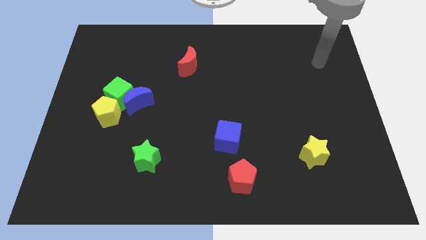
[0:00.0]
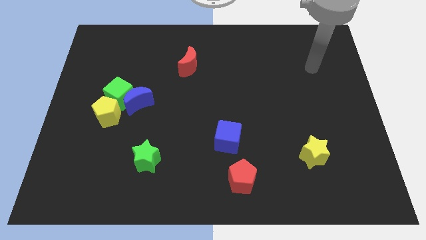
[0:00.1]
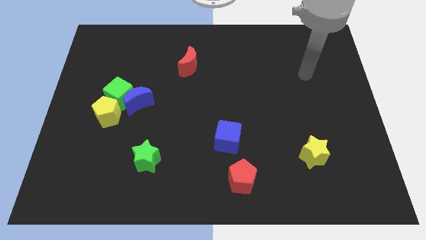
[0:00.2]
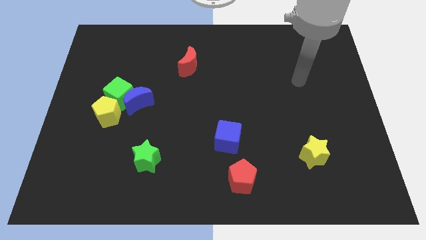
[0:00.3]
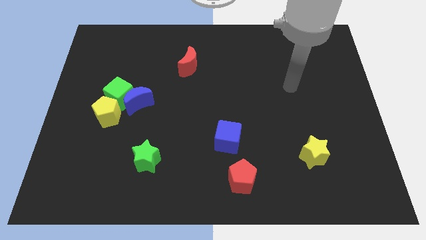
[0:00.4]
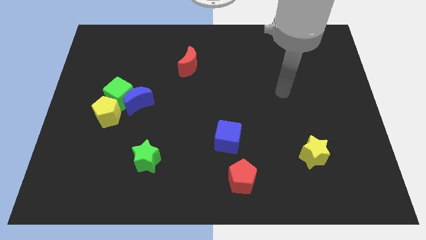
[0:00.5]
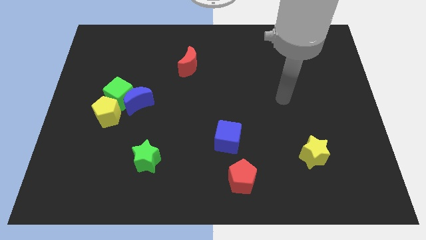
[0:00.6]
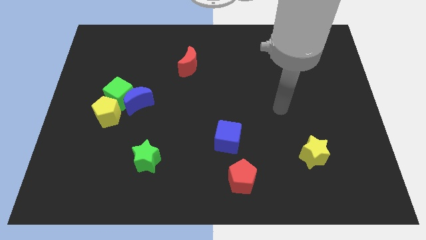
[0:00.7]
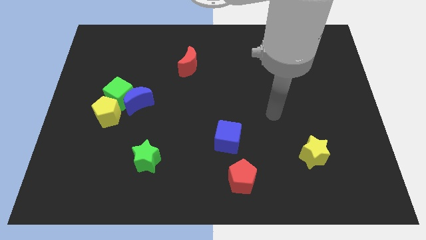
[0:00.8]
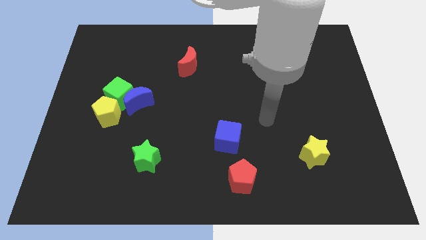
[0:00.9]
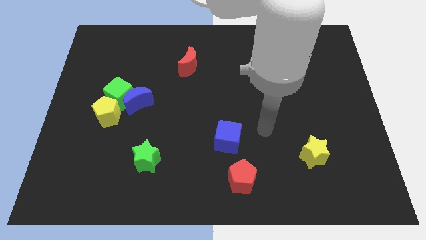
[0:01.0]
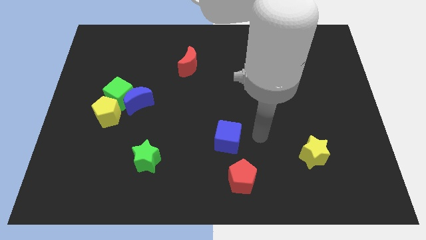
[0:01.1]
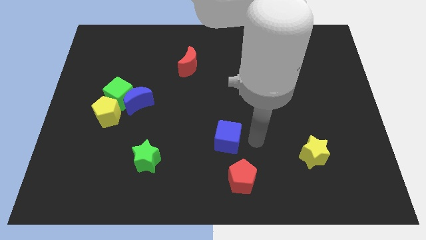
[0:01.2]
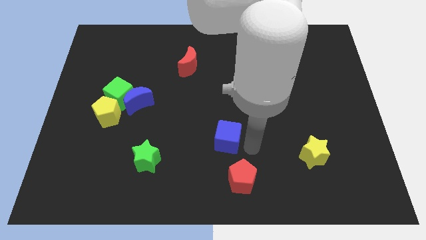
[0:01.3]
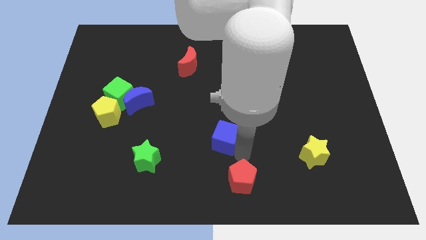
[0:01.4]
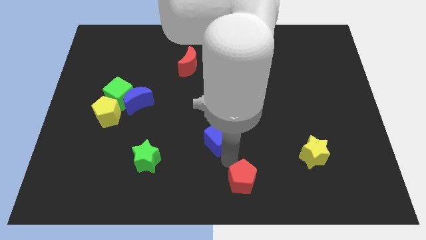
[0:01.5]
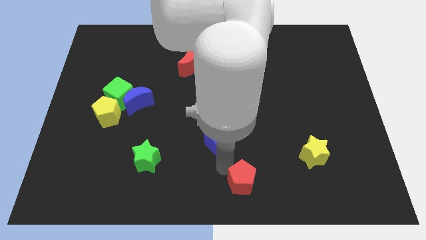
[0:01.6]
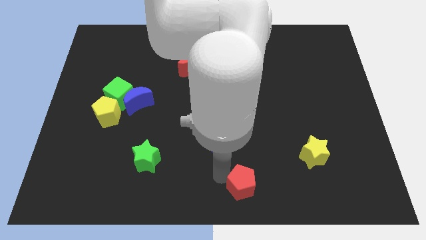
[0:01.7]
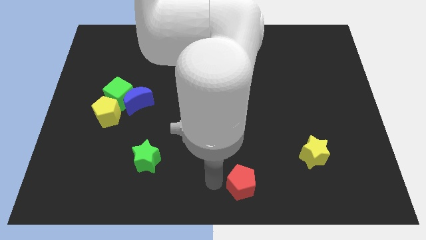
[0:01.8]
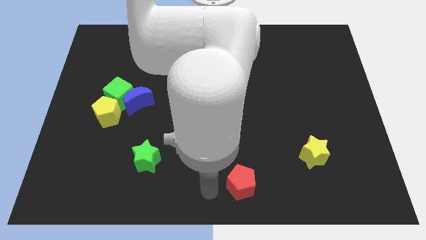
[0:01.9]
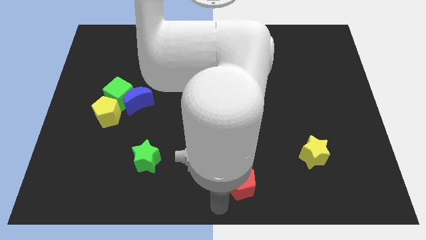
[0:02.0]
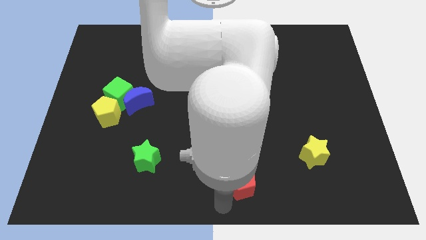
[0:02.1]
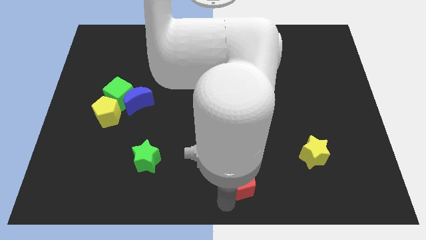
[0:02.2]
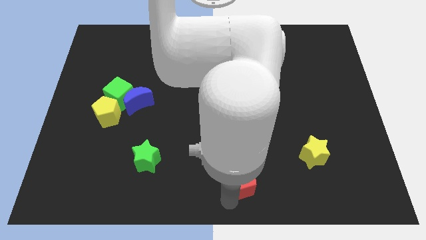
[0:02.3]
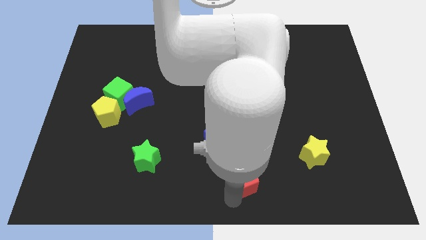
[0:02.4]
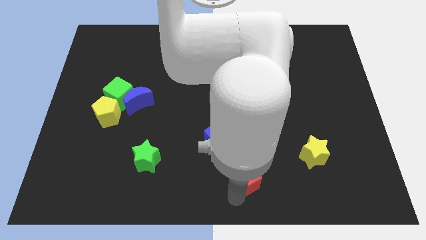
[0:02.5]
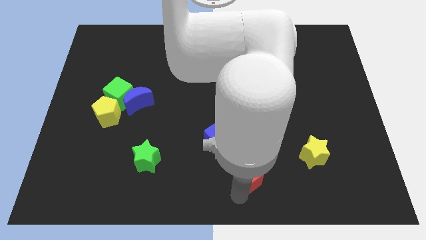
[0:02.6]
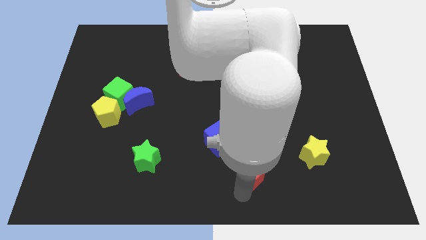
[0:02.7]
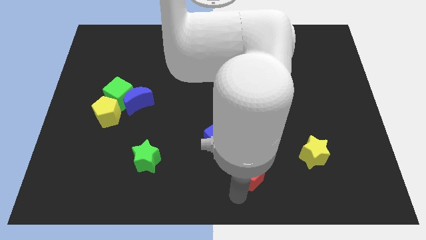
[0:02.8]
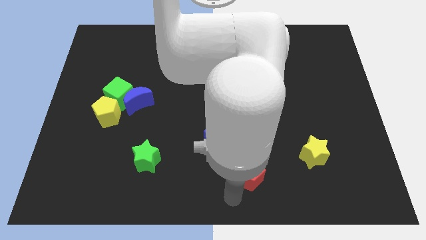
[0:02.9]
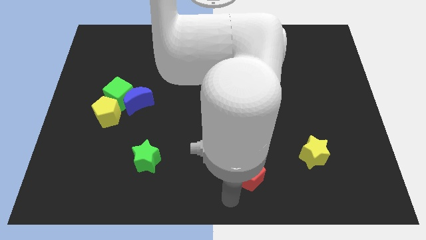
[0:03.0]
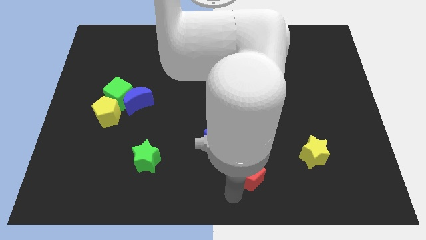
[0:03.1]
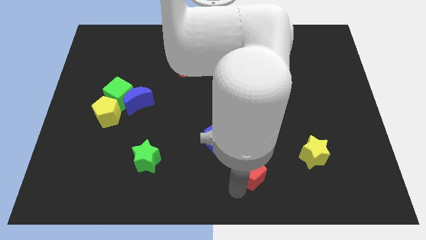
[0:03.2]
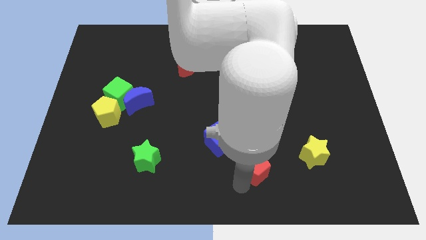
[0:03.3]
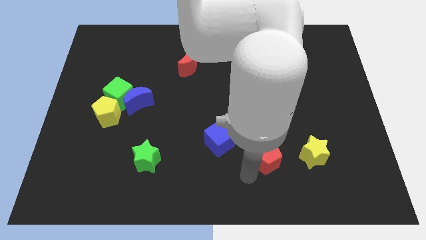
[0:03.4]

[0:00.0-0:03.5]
slightly move the red pentagon up and to the right

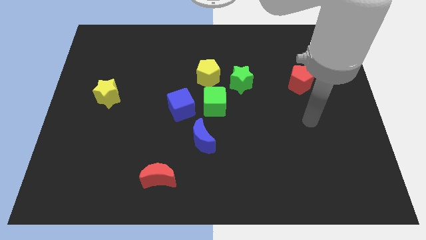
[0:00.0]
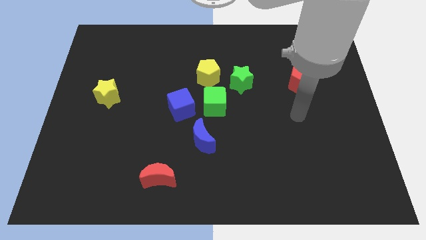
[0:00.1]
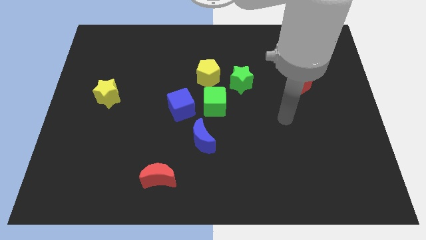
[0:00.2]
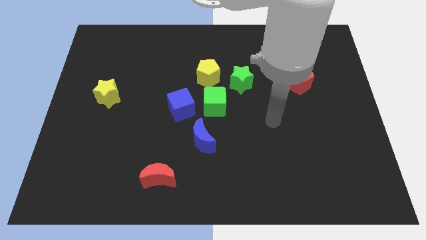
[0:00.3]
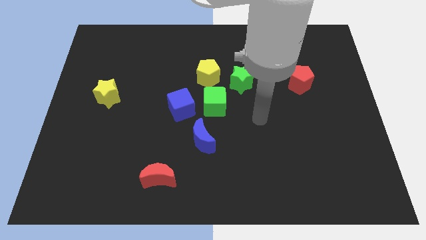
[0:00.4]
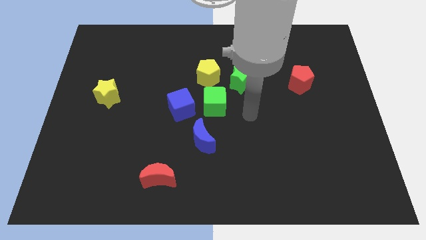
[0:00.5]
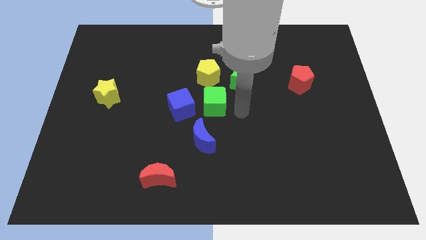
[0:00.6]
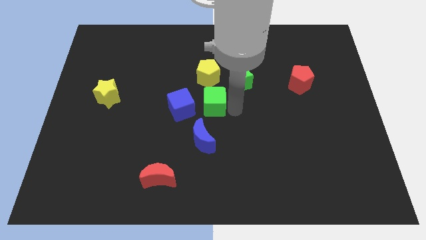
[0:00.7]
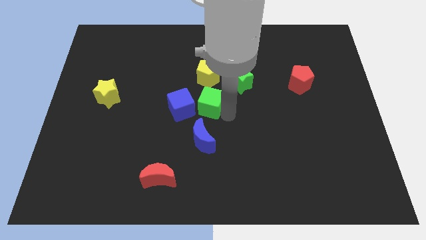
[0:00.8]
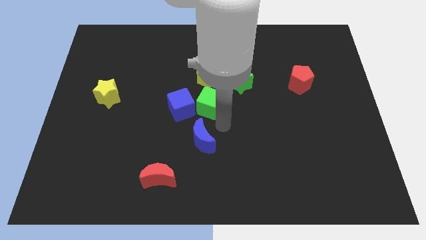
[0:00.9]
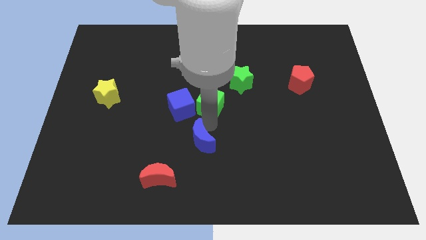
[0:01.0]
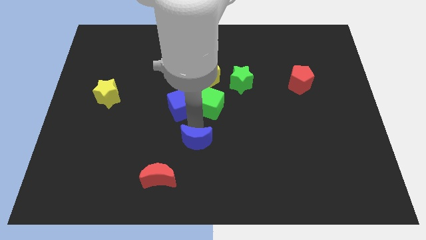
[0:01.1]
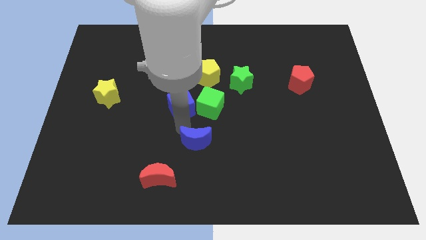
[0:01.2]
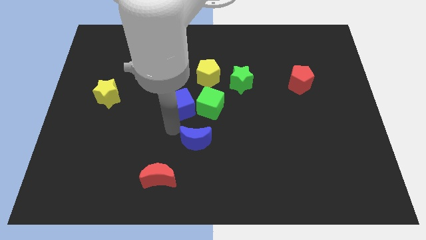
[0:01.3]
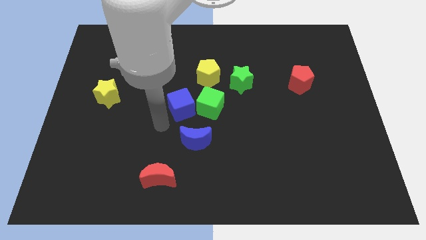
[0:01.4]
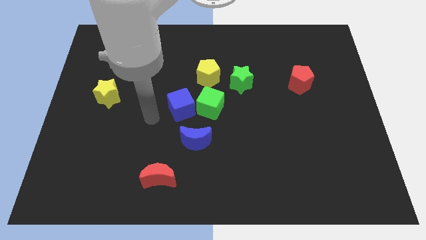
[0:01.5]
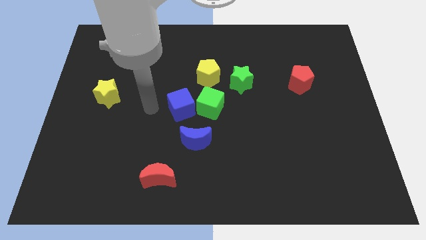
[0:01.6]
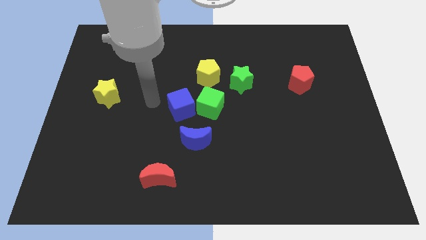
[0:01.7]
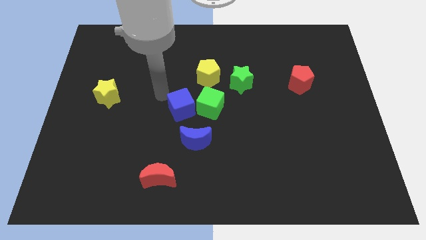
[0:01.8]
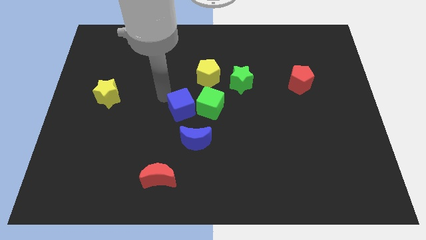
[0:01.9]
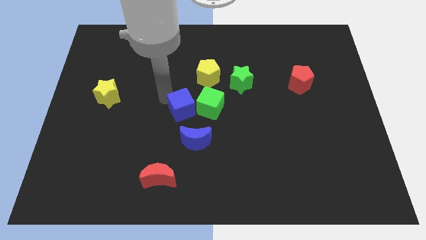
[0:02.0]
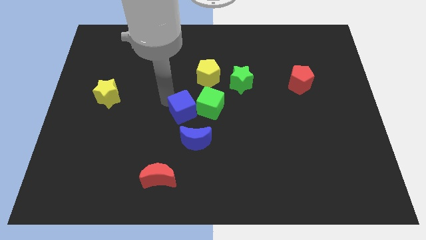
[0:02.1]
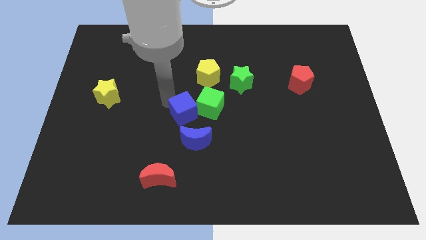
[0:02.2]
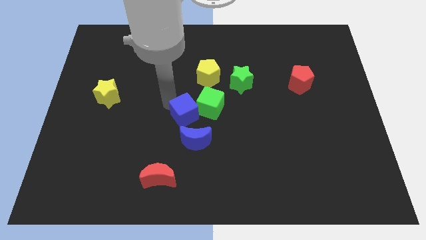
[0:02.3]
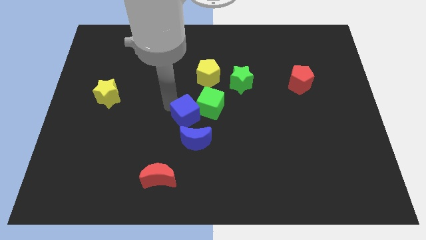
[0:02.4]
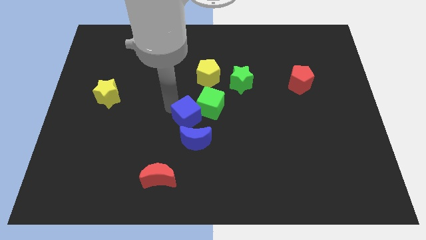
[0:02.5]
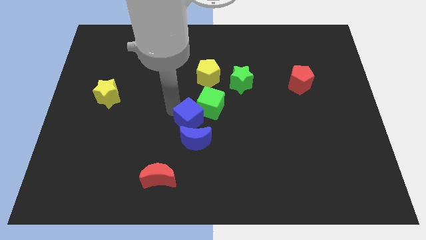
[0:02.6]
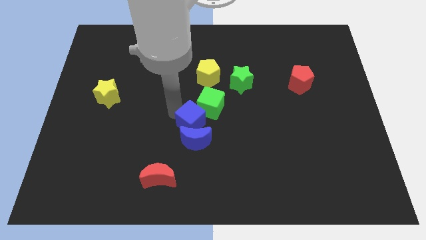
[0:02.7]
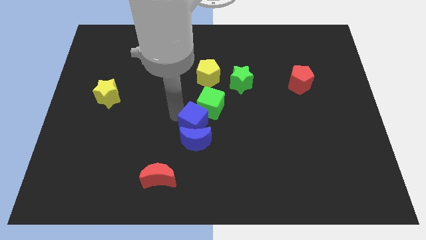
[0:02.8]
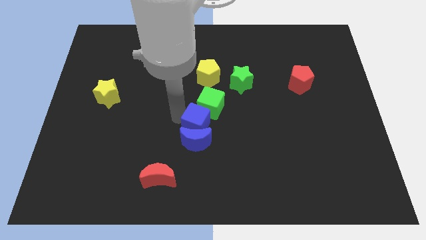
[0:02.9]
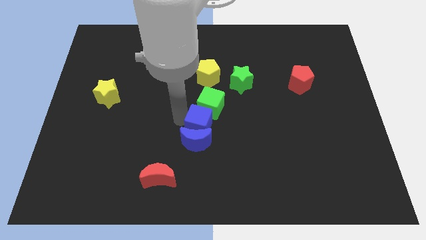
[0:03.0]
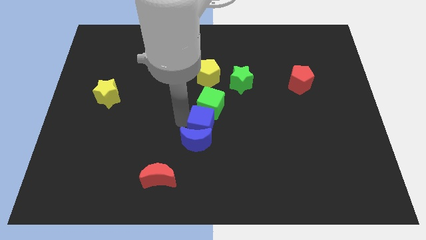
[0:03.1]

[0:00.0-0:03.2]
slightly slide the blue cube down and right

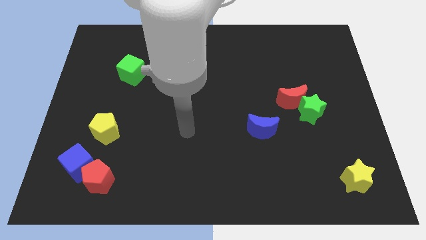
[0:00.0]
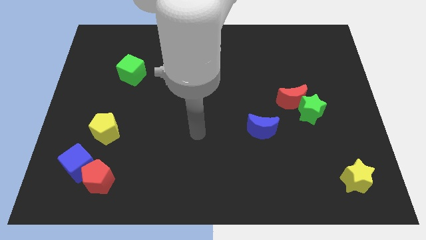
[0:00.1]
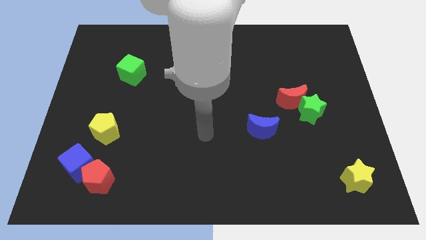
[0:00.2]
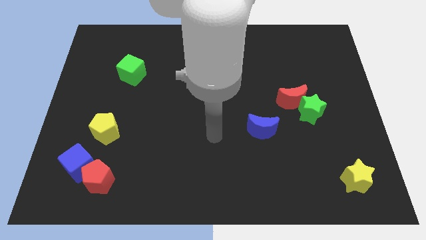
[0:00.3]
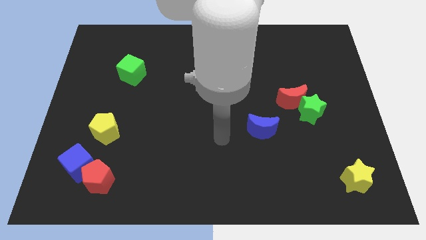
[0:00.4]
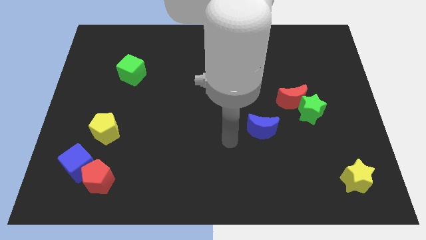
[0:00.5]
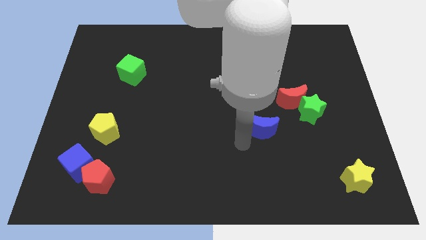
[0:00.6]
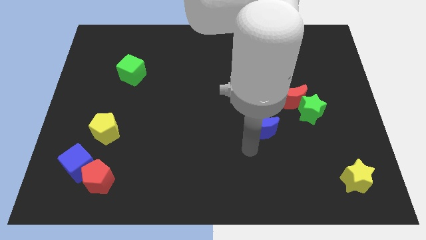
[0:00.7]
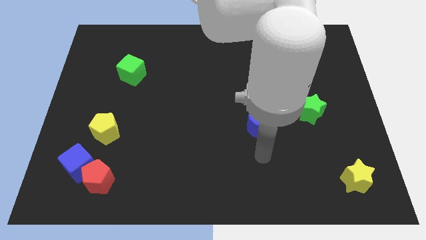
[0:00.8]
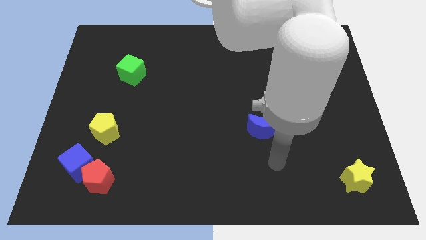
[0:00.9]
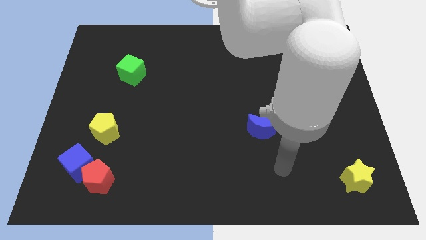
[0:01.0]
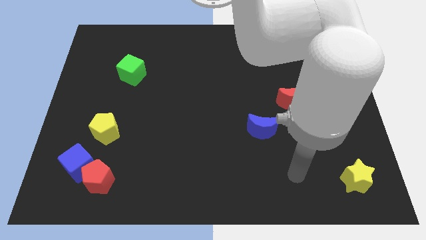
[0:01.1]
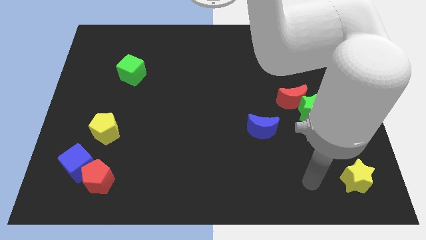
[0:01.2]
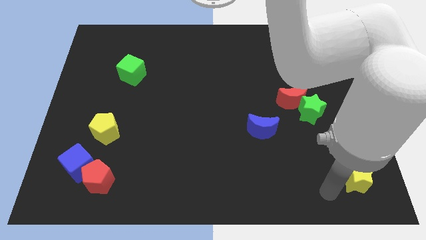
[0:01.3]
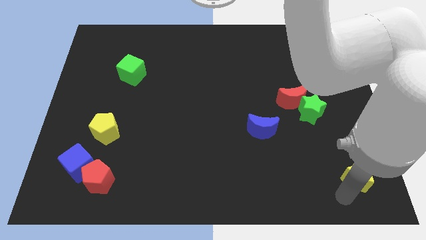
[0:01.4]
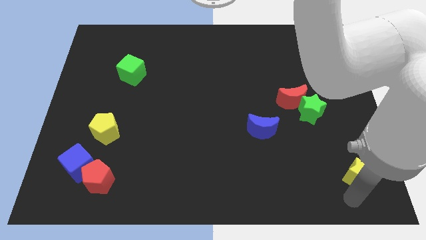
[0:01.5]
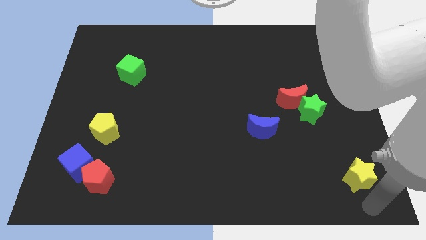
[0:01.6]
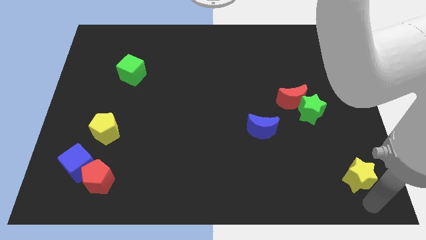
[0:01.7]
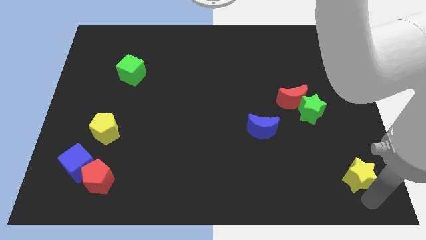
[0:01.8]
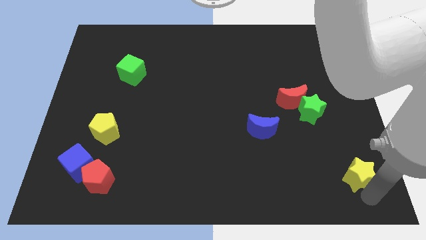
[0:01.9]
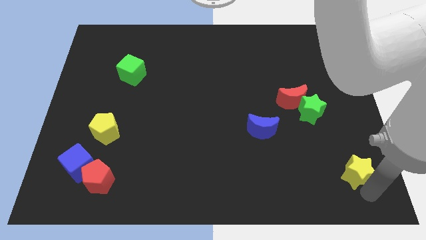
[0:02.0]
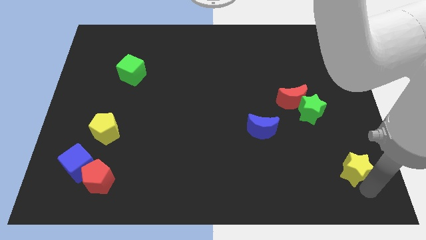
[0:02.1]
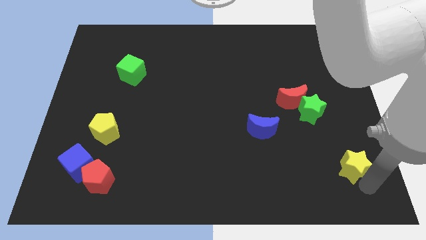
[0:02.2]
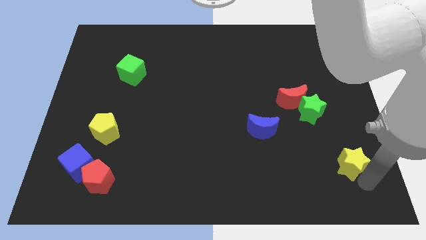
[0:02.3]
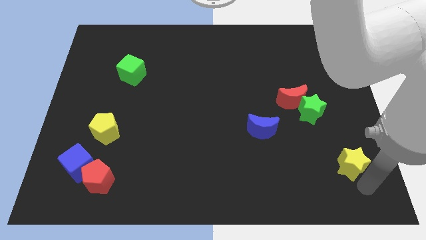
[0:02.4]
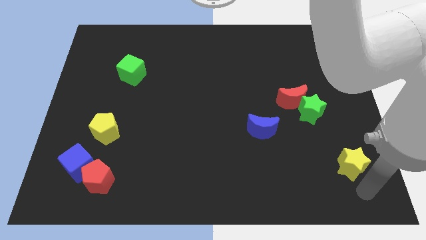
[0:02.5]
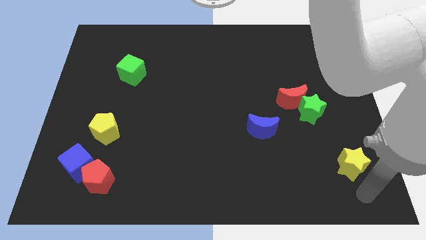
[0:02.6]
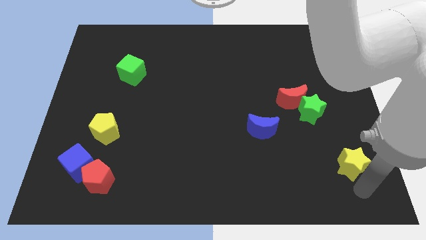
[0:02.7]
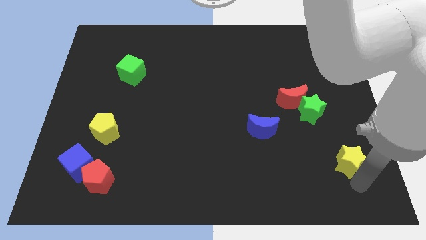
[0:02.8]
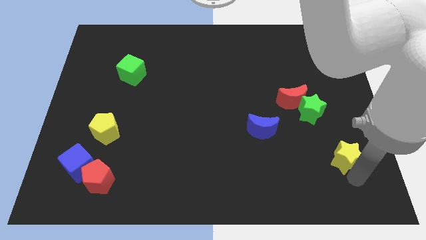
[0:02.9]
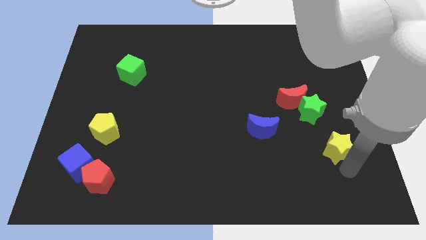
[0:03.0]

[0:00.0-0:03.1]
move the yellow star upwards slightly
